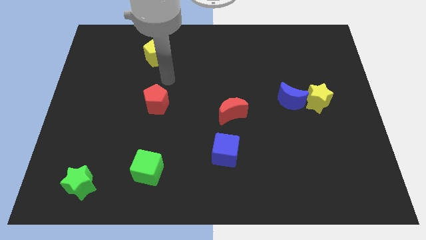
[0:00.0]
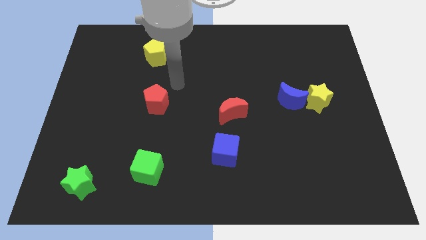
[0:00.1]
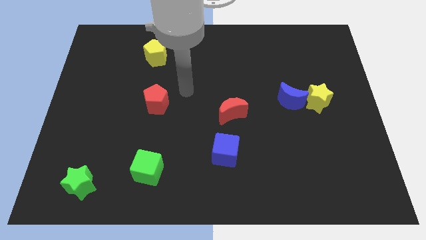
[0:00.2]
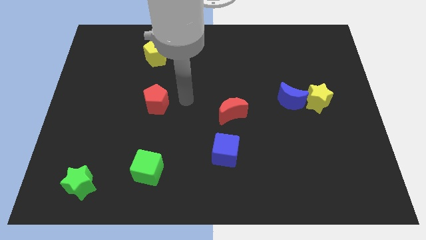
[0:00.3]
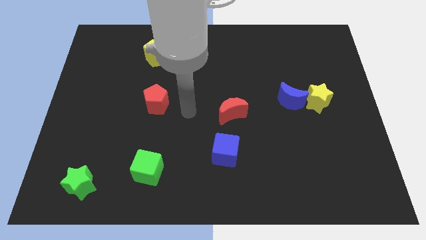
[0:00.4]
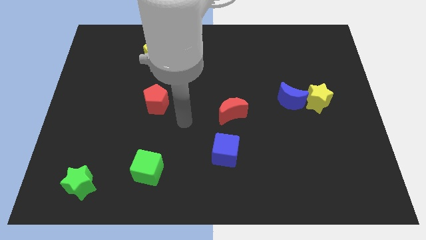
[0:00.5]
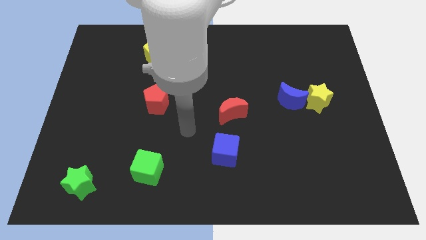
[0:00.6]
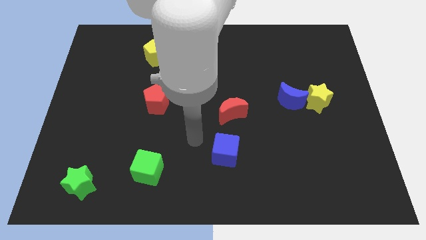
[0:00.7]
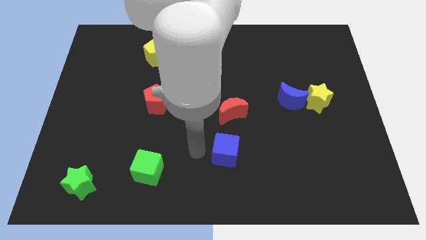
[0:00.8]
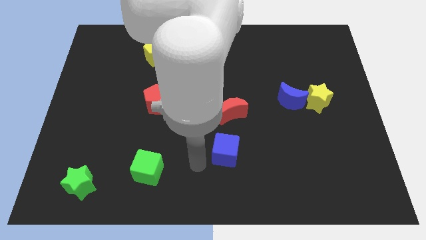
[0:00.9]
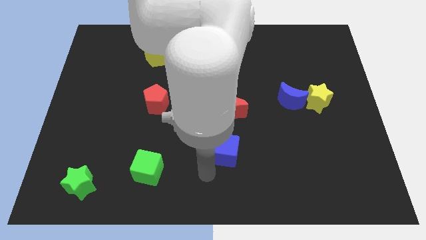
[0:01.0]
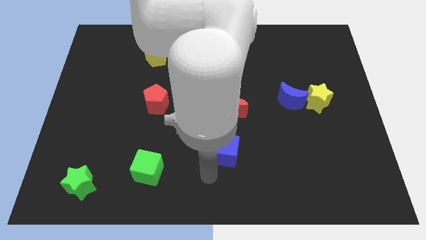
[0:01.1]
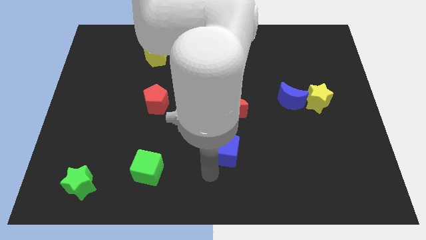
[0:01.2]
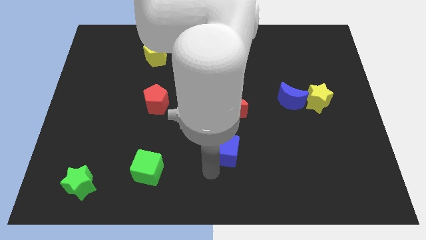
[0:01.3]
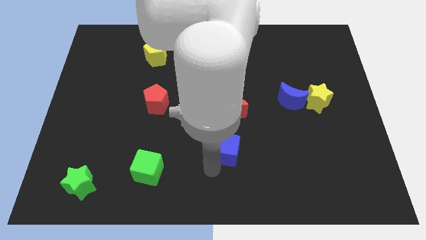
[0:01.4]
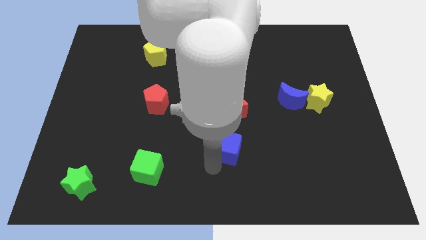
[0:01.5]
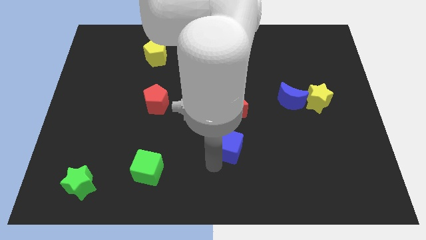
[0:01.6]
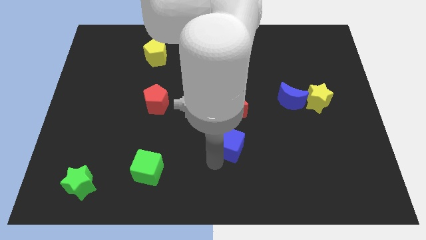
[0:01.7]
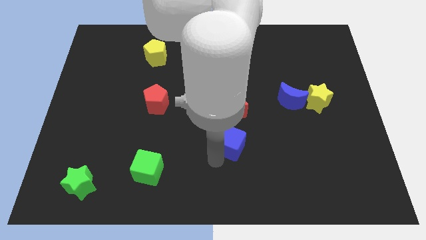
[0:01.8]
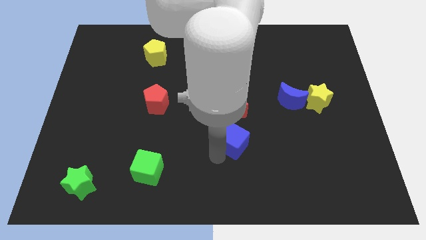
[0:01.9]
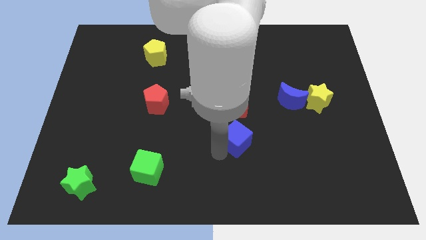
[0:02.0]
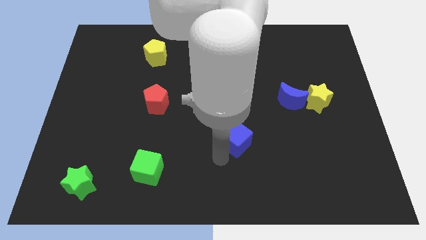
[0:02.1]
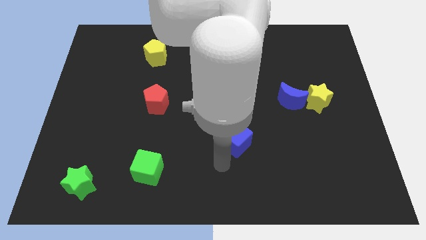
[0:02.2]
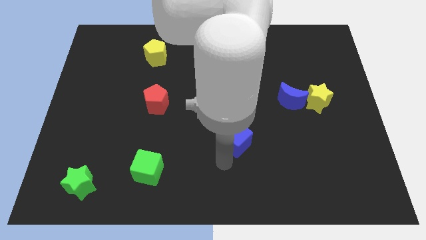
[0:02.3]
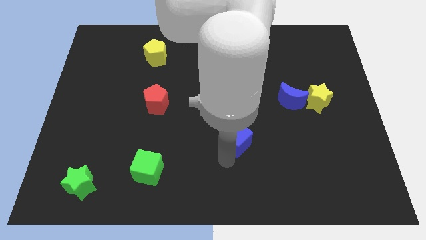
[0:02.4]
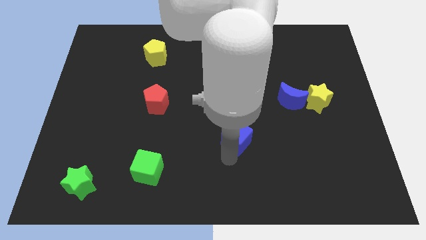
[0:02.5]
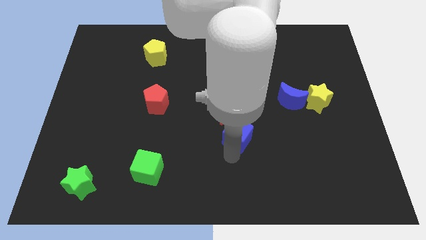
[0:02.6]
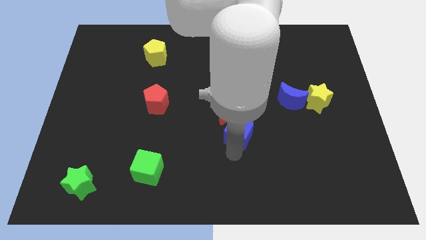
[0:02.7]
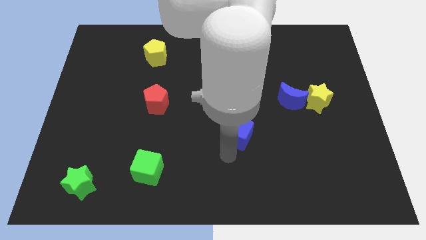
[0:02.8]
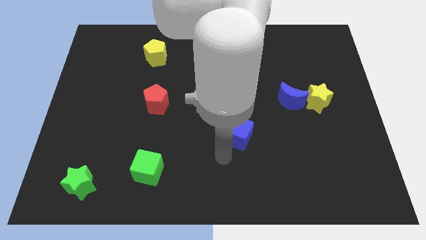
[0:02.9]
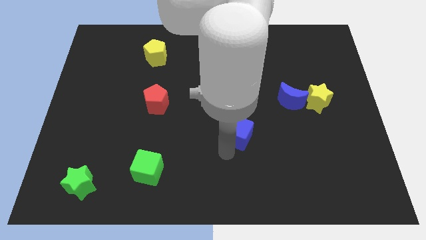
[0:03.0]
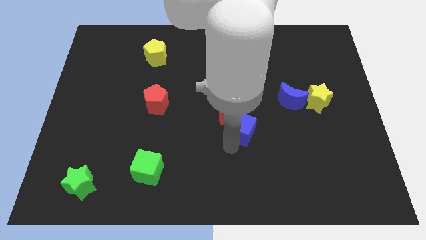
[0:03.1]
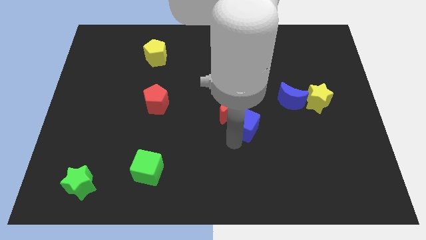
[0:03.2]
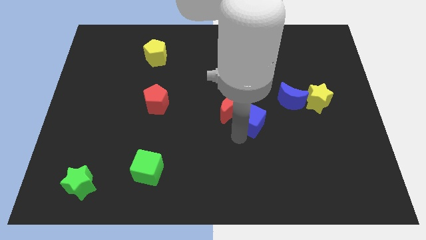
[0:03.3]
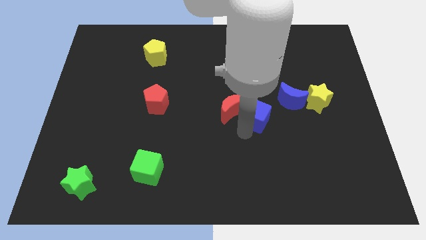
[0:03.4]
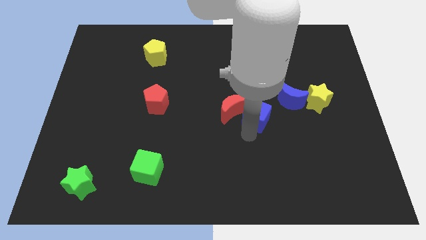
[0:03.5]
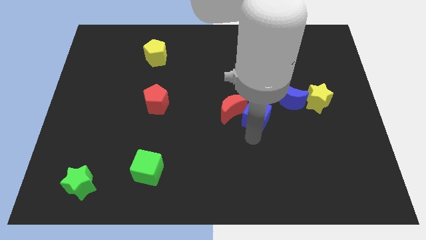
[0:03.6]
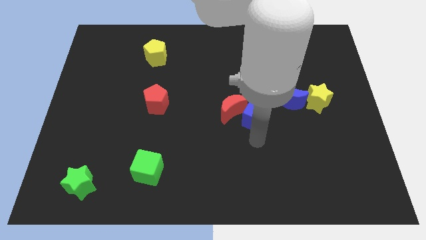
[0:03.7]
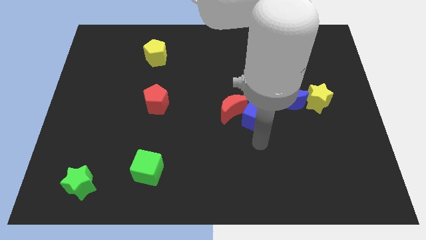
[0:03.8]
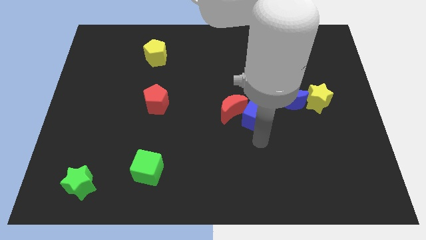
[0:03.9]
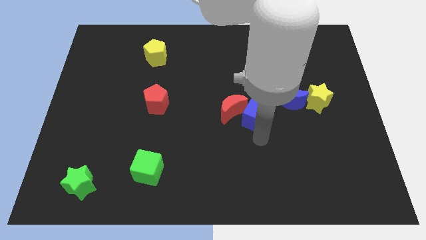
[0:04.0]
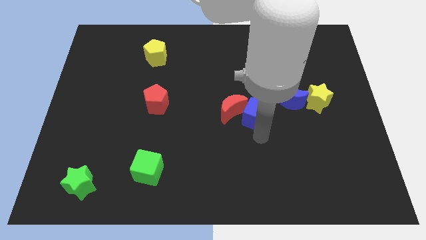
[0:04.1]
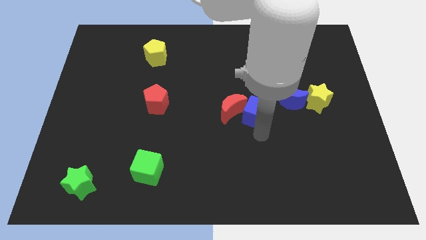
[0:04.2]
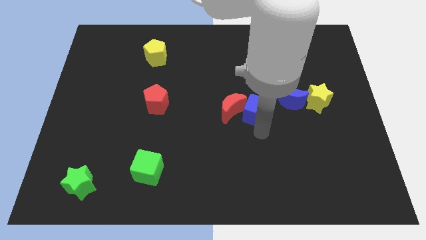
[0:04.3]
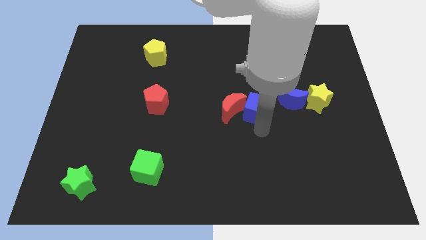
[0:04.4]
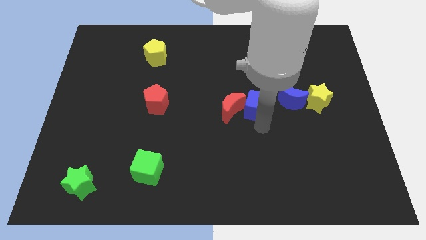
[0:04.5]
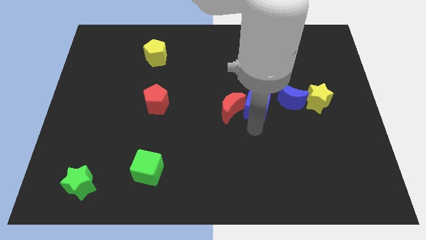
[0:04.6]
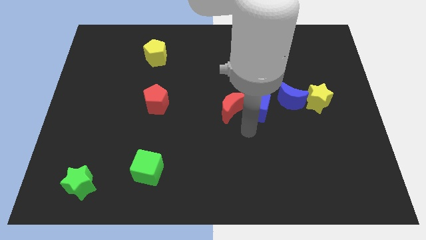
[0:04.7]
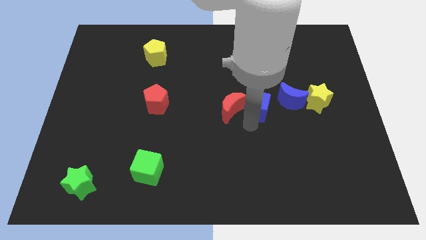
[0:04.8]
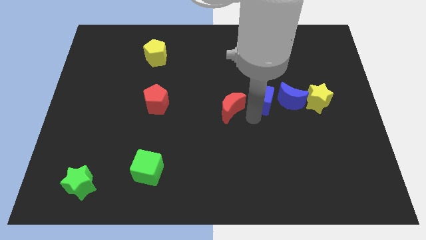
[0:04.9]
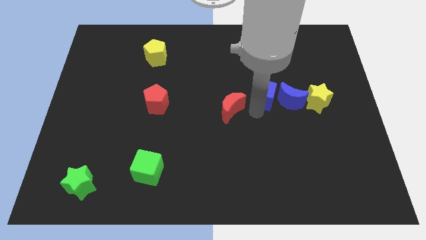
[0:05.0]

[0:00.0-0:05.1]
put the blue cube diagonally up and to the left of the blue moon

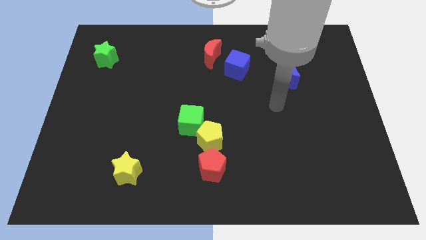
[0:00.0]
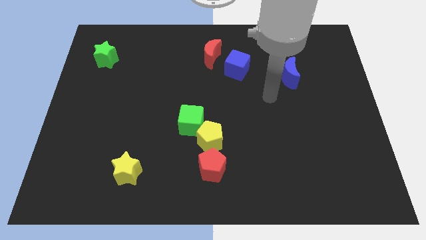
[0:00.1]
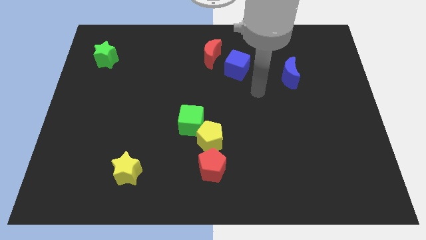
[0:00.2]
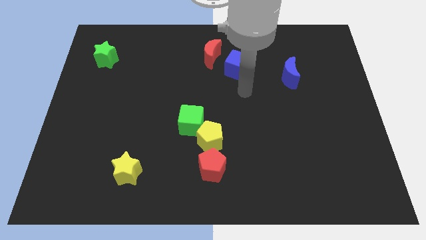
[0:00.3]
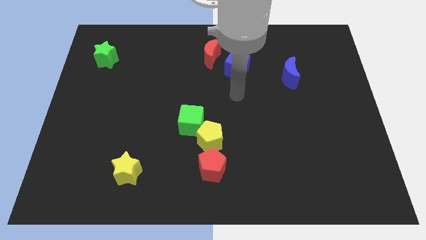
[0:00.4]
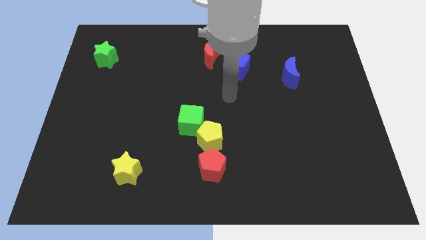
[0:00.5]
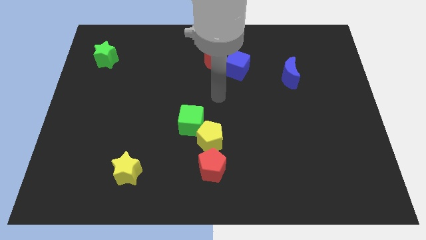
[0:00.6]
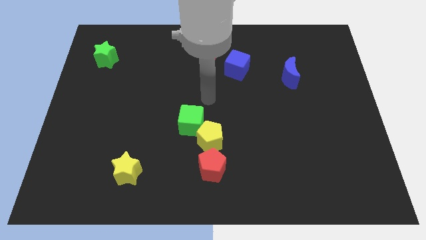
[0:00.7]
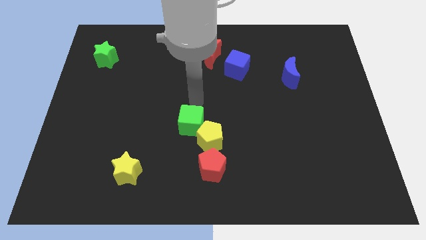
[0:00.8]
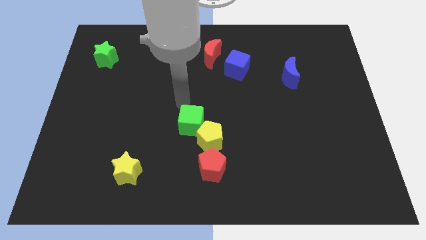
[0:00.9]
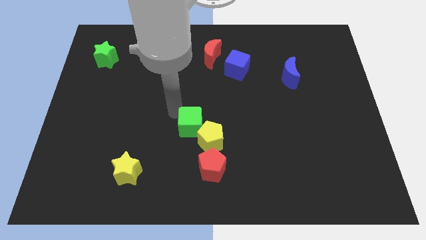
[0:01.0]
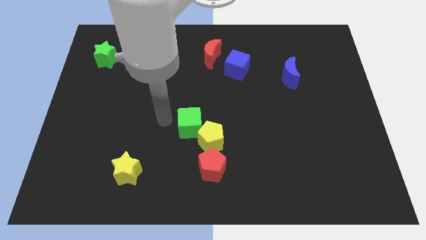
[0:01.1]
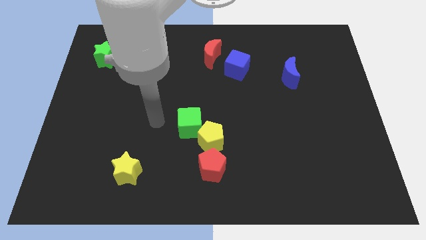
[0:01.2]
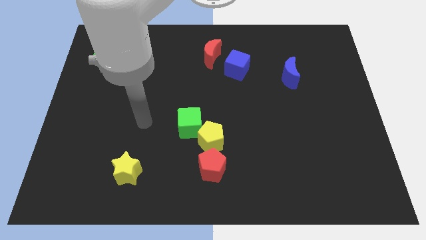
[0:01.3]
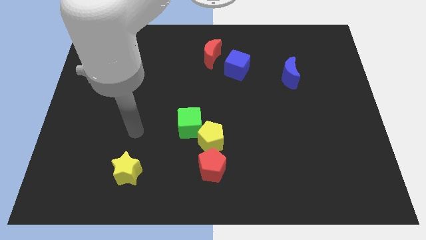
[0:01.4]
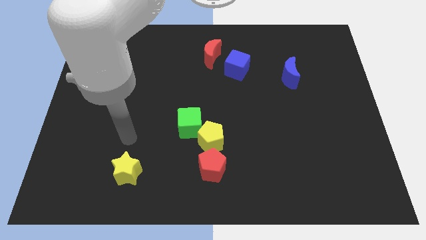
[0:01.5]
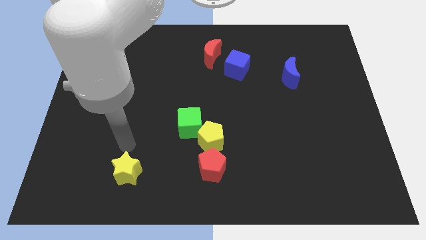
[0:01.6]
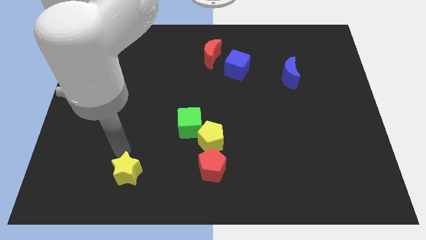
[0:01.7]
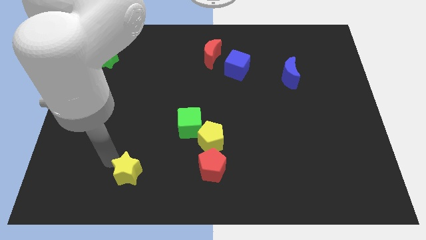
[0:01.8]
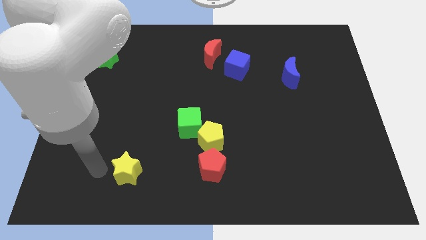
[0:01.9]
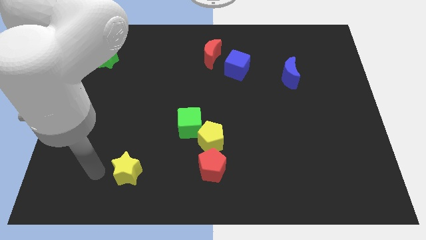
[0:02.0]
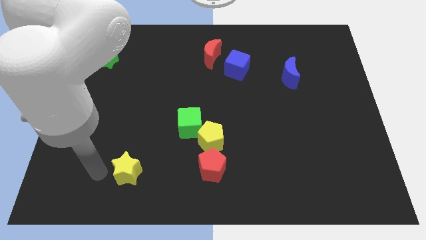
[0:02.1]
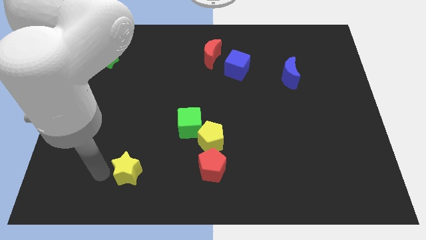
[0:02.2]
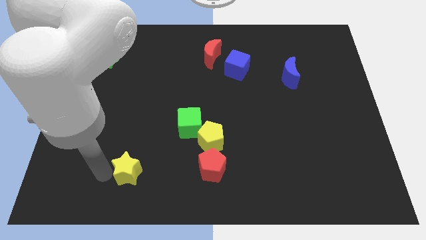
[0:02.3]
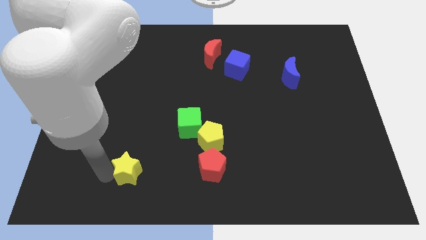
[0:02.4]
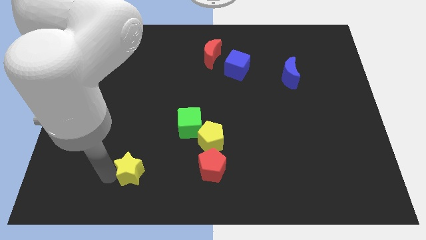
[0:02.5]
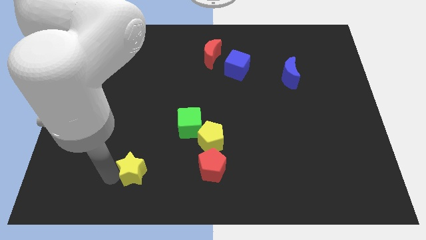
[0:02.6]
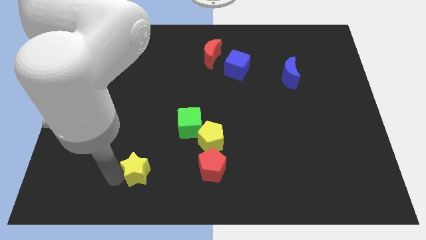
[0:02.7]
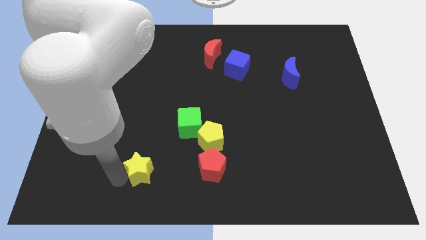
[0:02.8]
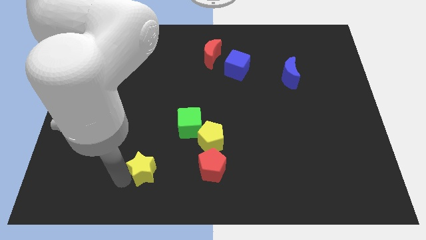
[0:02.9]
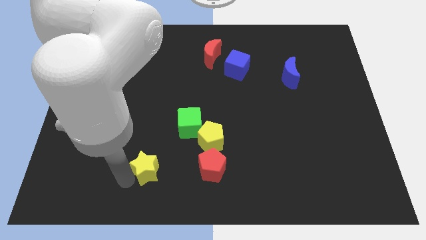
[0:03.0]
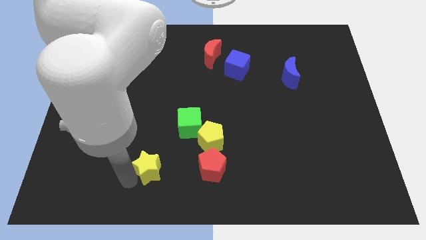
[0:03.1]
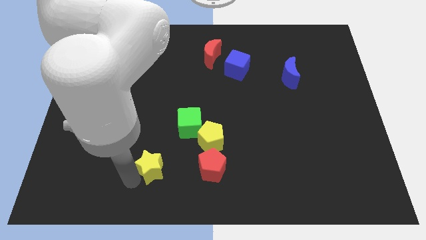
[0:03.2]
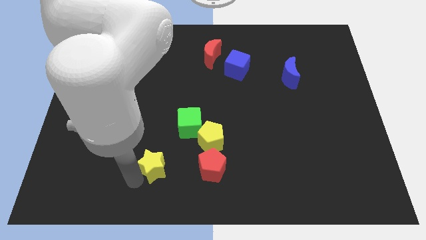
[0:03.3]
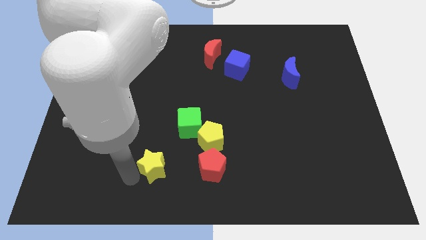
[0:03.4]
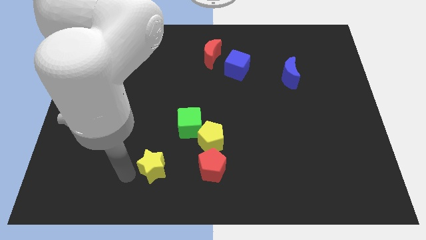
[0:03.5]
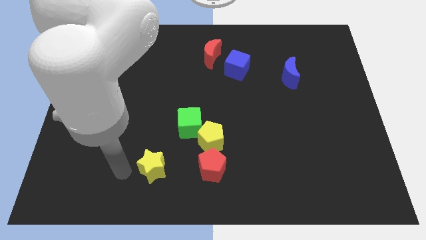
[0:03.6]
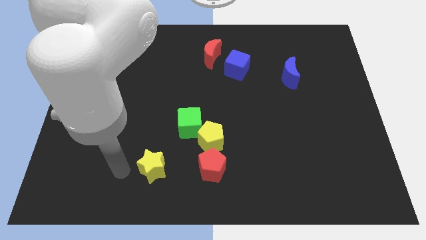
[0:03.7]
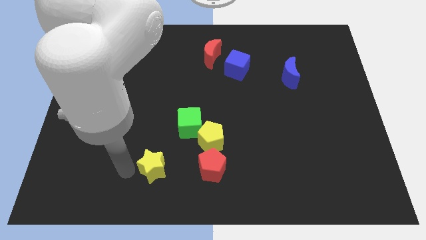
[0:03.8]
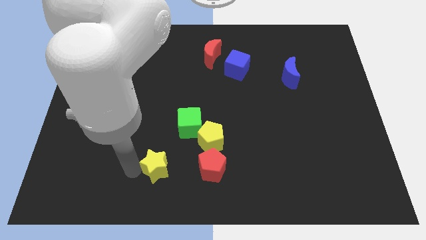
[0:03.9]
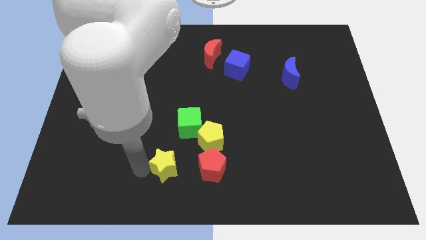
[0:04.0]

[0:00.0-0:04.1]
push the yellow star to the bottom side of the green cube
